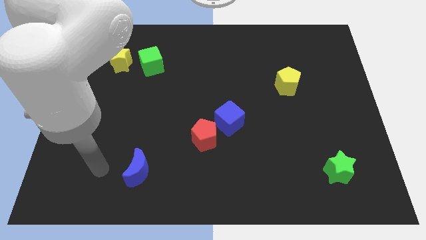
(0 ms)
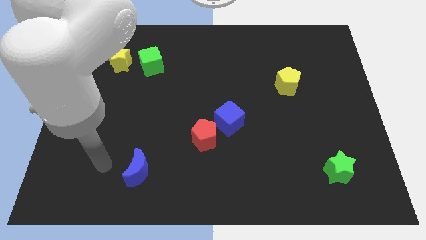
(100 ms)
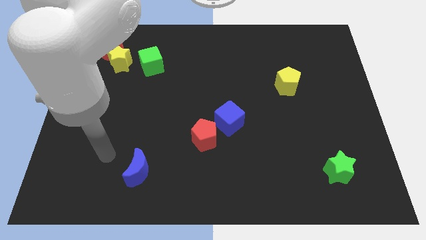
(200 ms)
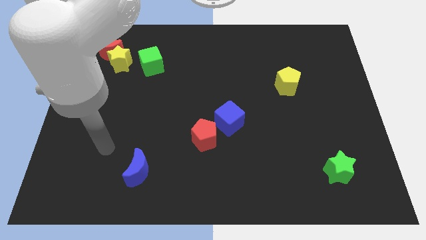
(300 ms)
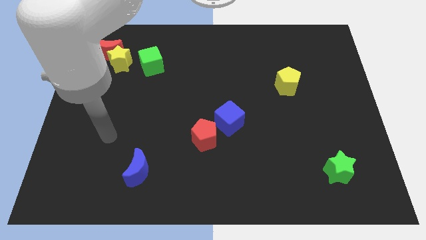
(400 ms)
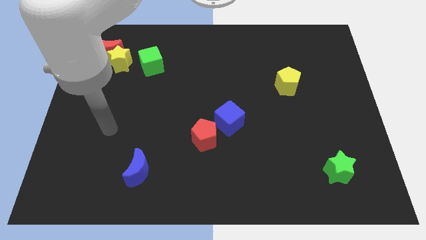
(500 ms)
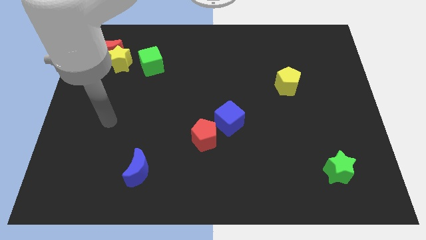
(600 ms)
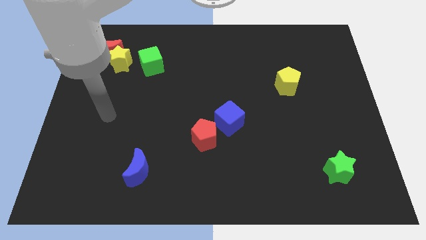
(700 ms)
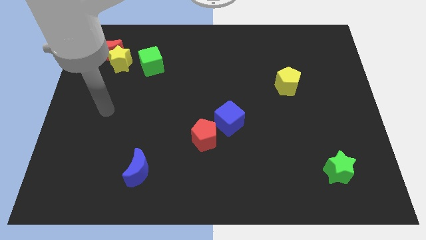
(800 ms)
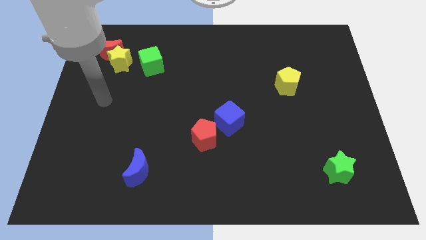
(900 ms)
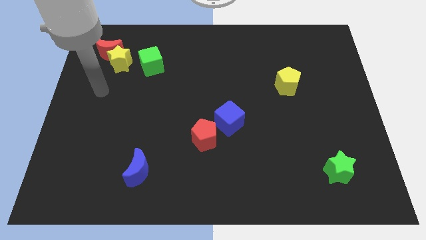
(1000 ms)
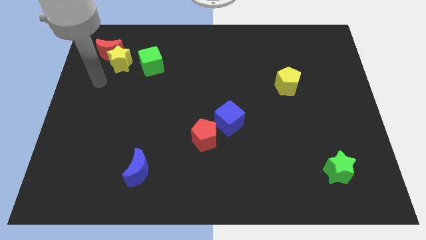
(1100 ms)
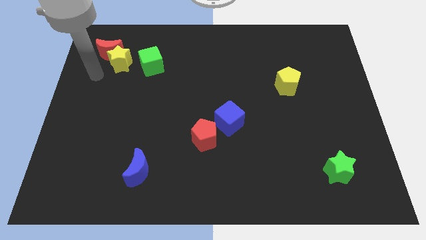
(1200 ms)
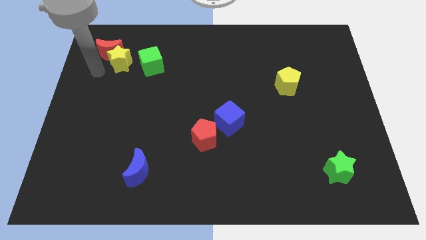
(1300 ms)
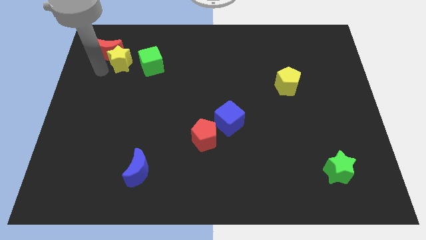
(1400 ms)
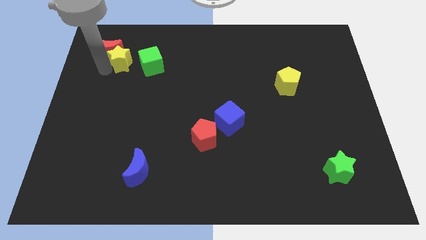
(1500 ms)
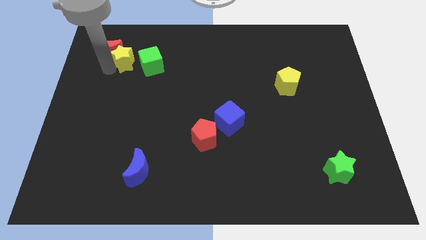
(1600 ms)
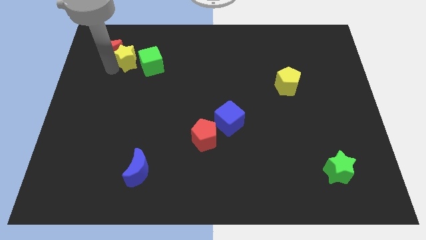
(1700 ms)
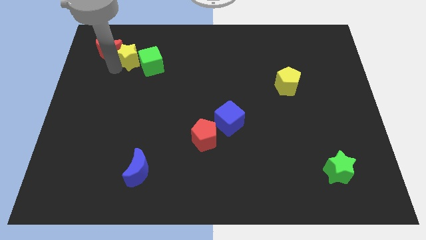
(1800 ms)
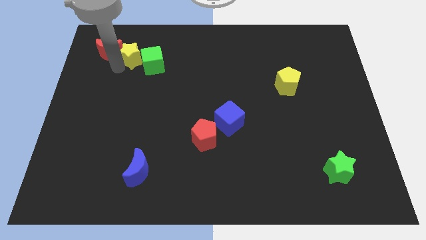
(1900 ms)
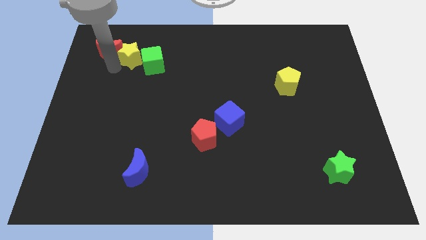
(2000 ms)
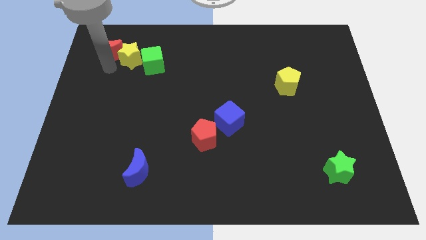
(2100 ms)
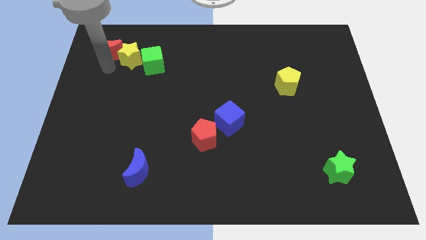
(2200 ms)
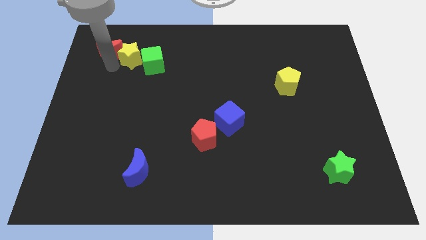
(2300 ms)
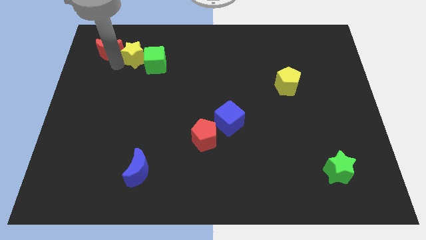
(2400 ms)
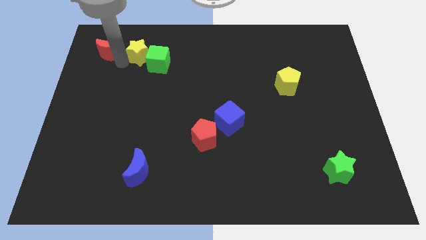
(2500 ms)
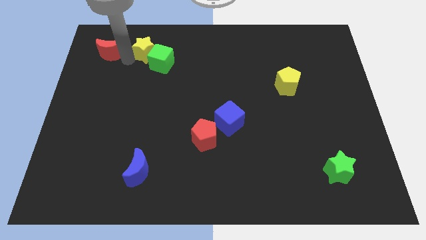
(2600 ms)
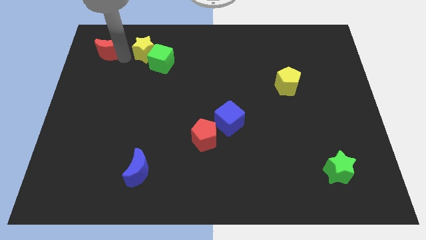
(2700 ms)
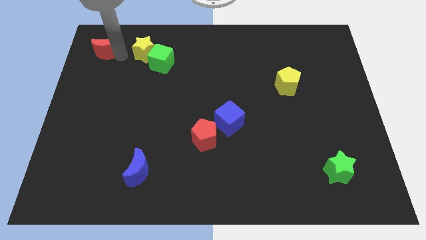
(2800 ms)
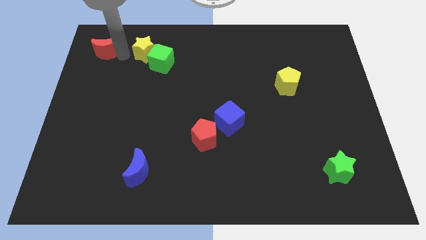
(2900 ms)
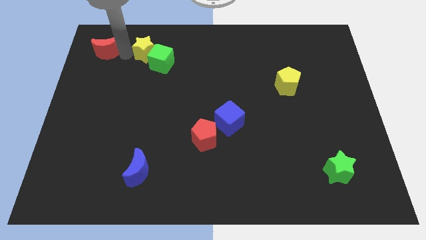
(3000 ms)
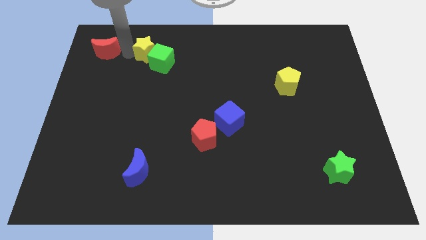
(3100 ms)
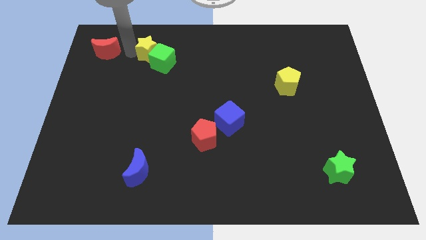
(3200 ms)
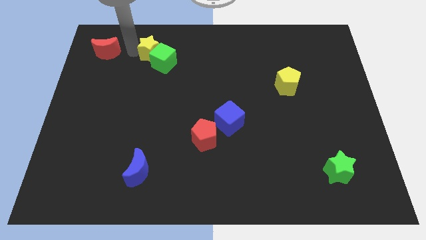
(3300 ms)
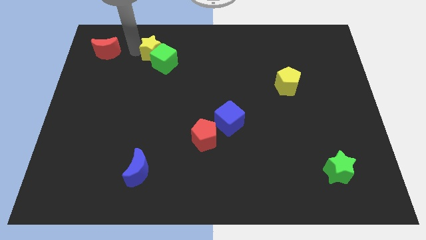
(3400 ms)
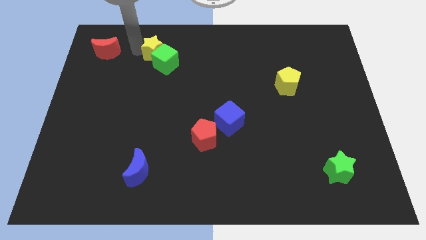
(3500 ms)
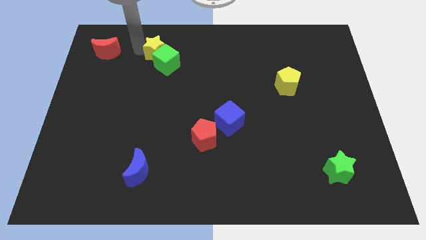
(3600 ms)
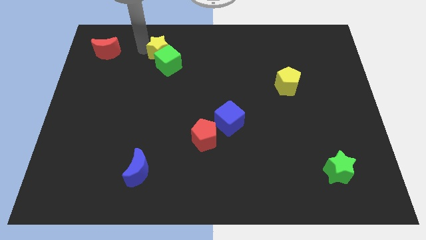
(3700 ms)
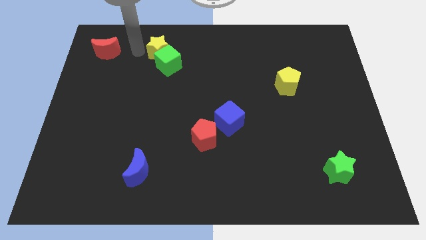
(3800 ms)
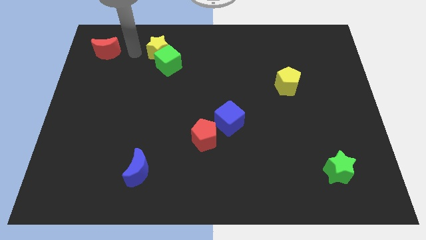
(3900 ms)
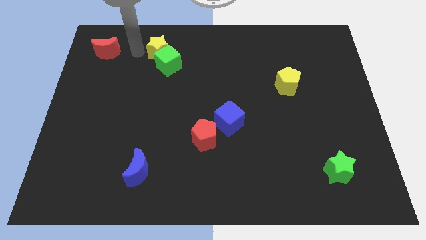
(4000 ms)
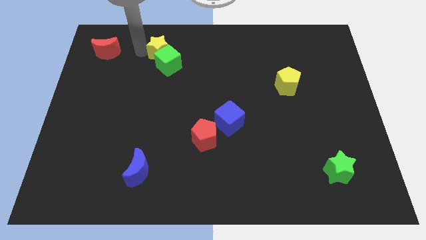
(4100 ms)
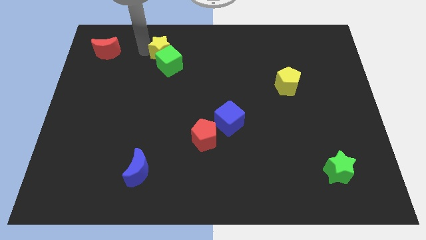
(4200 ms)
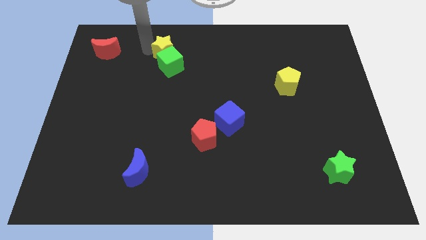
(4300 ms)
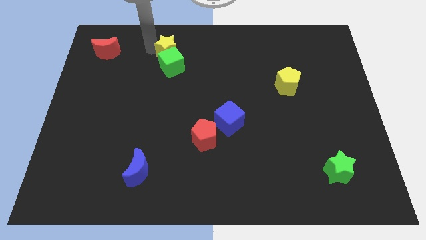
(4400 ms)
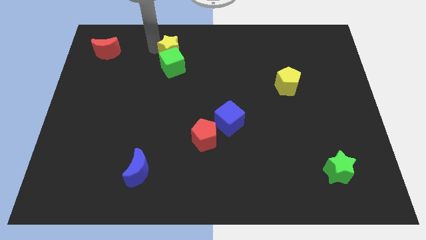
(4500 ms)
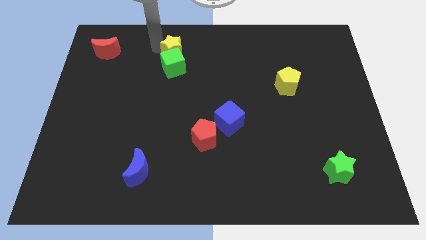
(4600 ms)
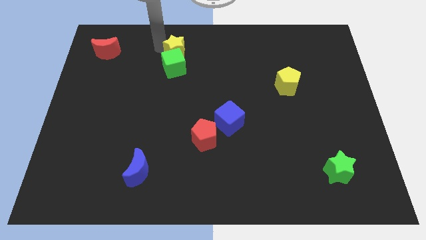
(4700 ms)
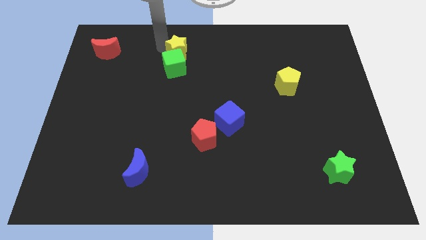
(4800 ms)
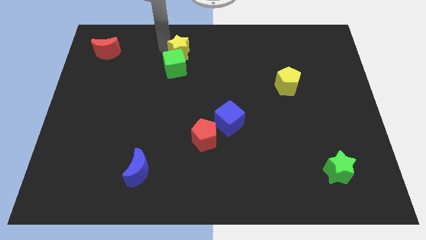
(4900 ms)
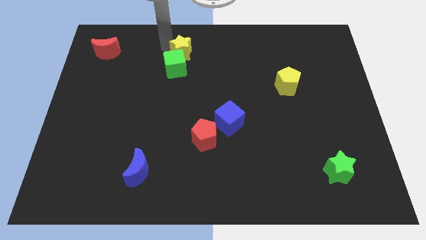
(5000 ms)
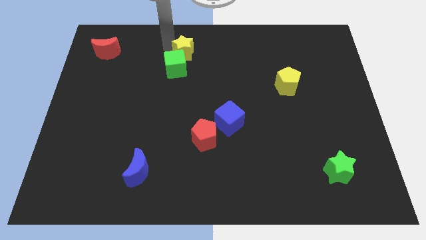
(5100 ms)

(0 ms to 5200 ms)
put the yellow star to the towards your base

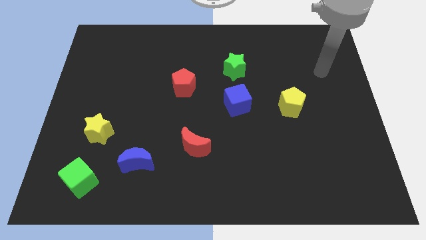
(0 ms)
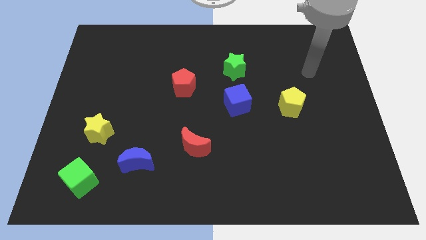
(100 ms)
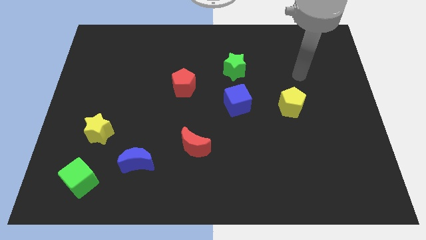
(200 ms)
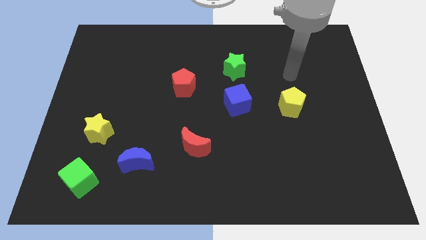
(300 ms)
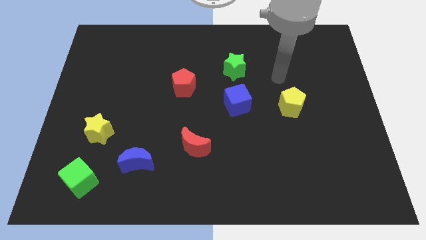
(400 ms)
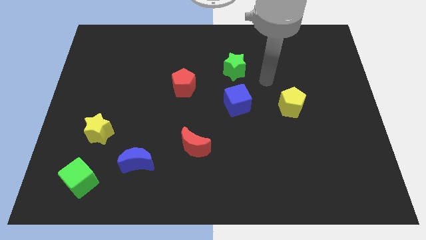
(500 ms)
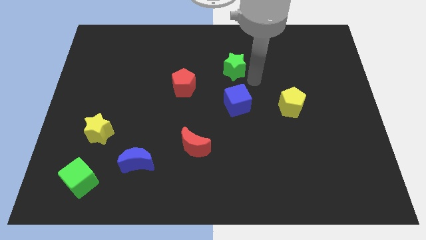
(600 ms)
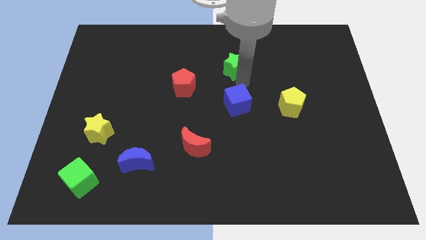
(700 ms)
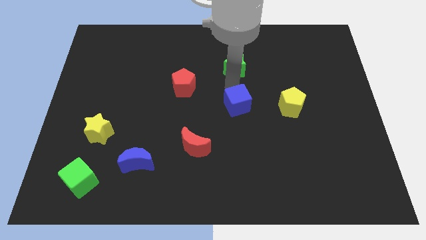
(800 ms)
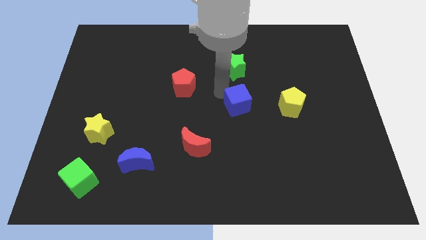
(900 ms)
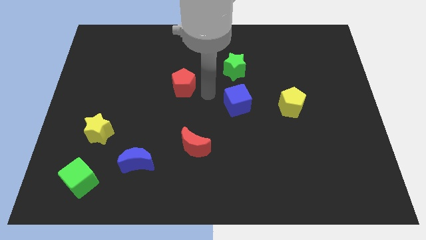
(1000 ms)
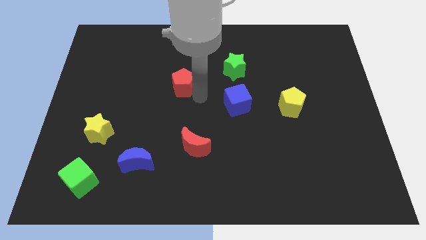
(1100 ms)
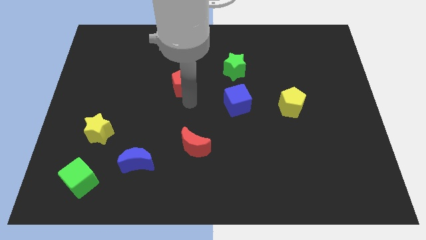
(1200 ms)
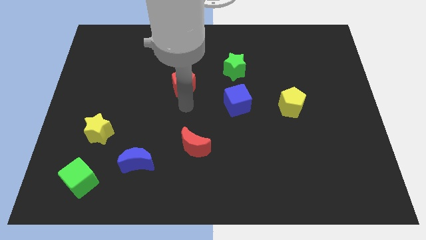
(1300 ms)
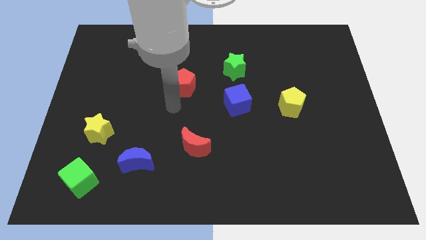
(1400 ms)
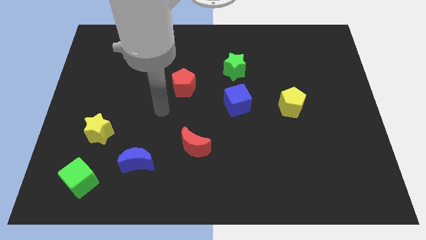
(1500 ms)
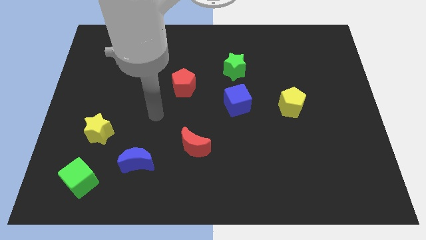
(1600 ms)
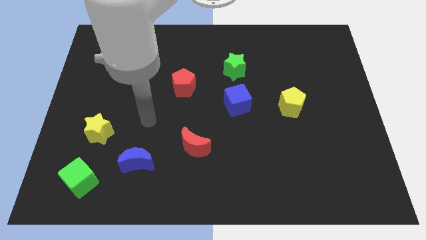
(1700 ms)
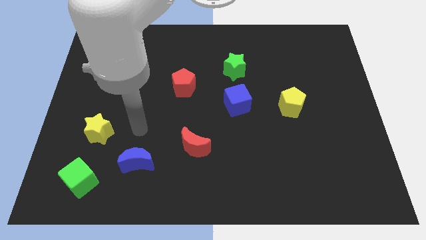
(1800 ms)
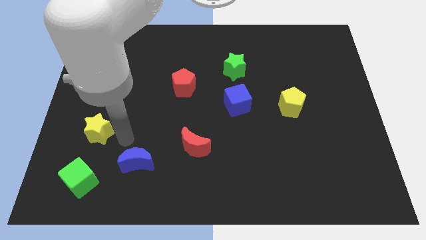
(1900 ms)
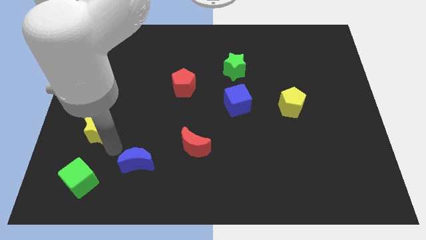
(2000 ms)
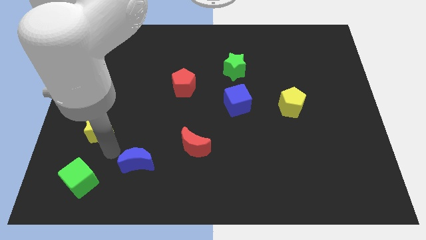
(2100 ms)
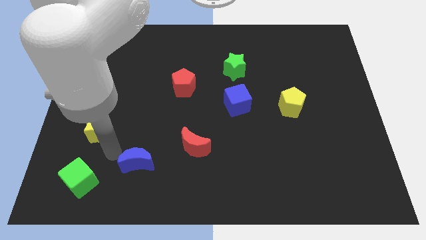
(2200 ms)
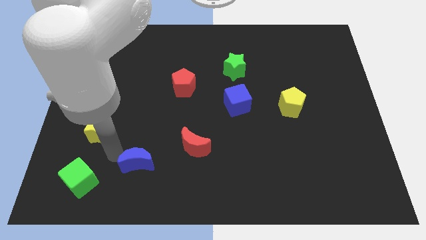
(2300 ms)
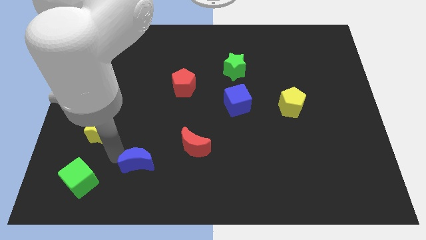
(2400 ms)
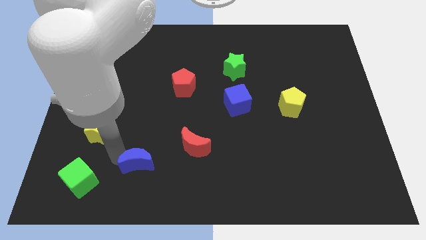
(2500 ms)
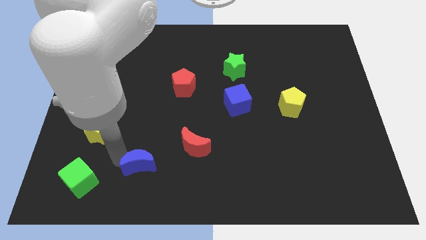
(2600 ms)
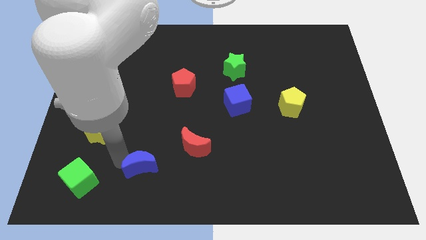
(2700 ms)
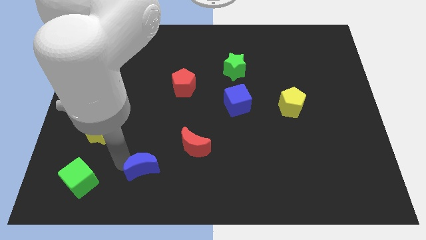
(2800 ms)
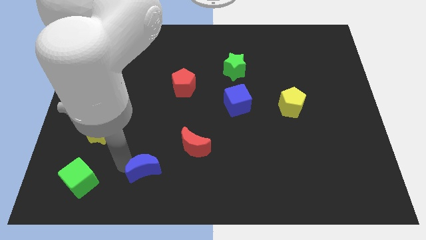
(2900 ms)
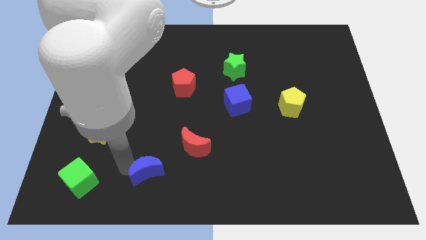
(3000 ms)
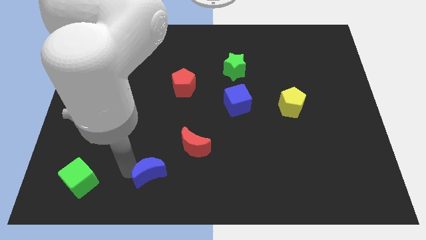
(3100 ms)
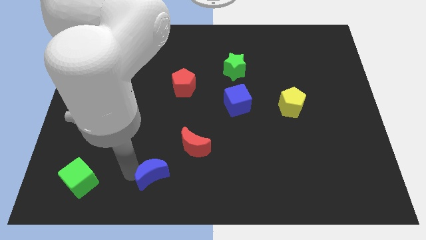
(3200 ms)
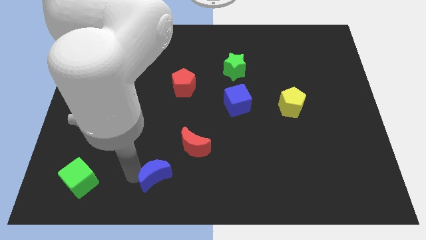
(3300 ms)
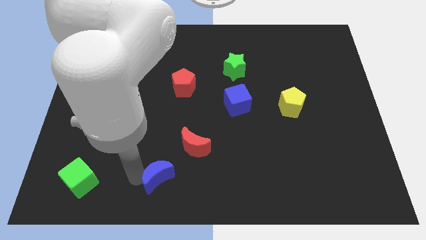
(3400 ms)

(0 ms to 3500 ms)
put the blue moon to the bottom
